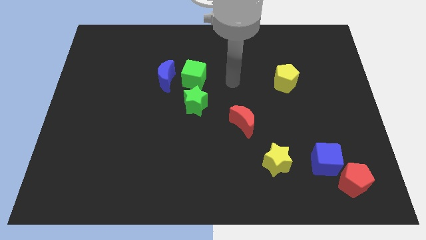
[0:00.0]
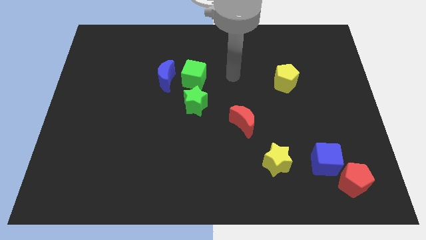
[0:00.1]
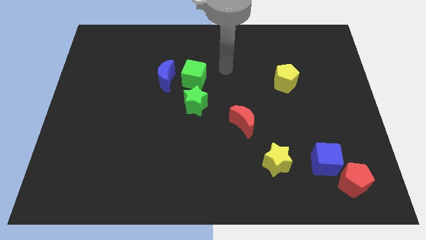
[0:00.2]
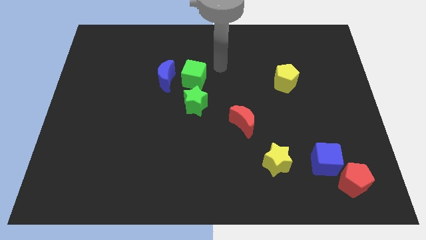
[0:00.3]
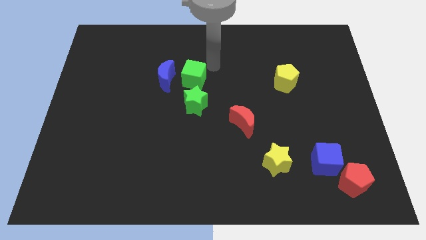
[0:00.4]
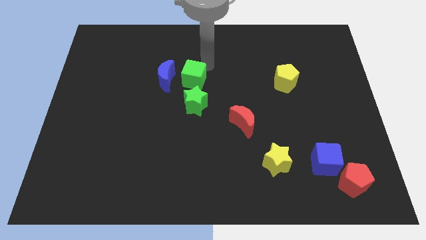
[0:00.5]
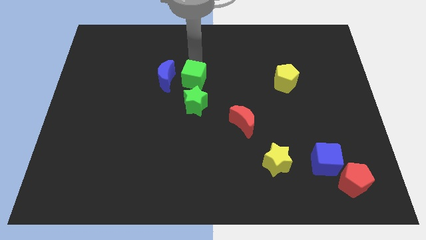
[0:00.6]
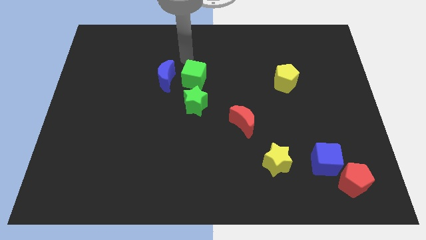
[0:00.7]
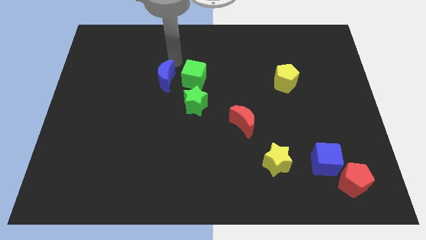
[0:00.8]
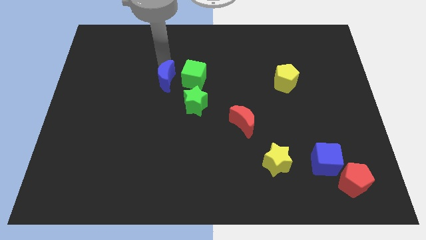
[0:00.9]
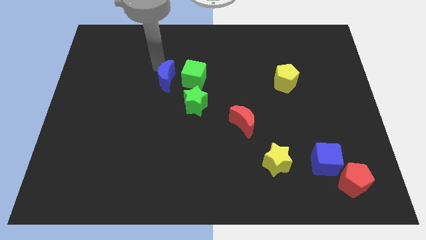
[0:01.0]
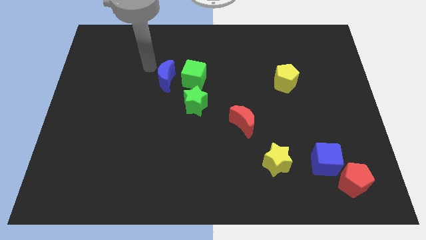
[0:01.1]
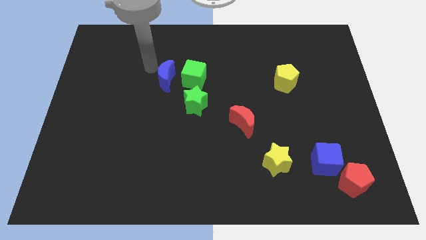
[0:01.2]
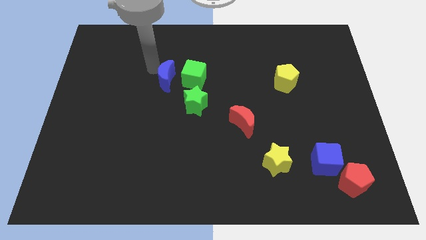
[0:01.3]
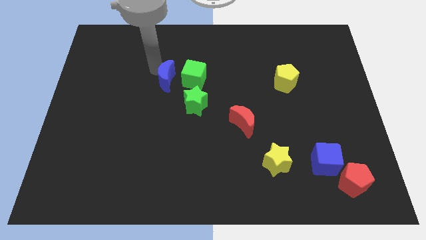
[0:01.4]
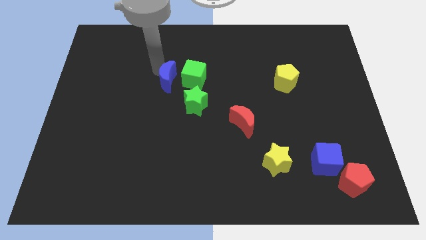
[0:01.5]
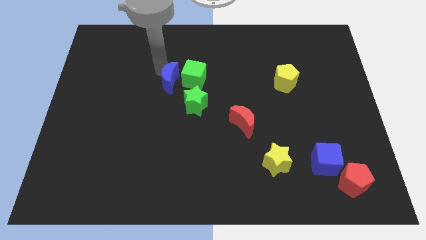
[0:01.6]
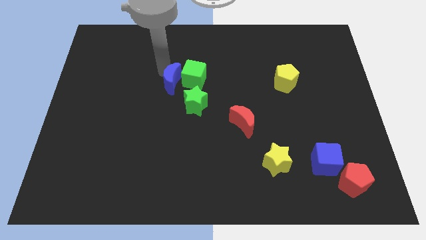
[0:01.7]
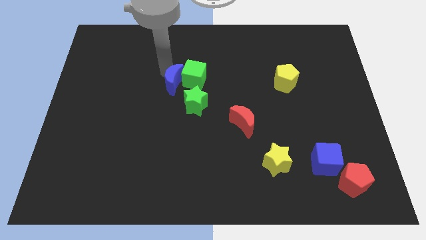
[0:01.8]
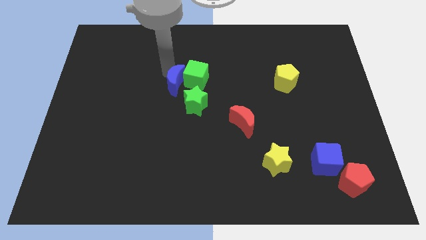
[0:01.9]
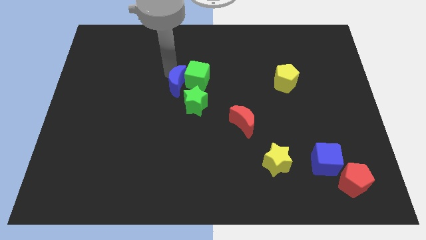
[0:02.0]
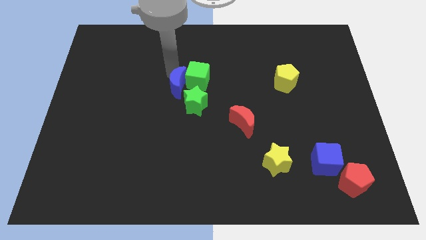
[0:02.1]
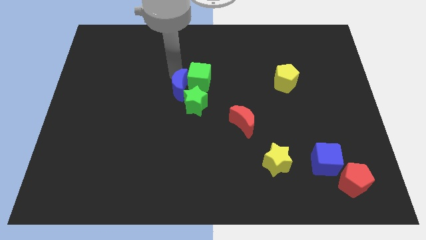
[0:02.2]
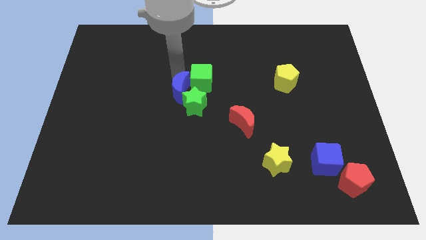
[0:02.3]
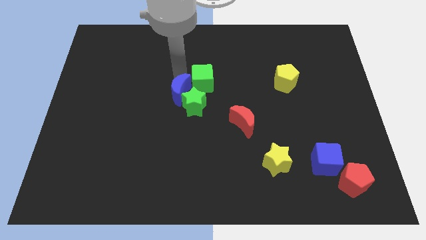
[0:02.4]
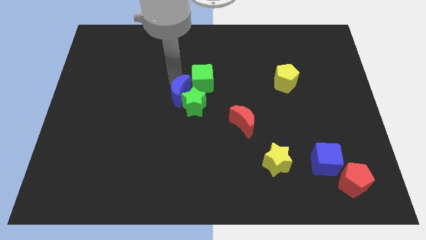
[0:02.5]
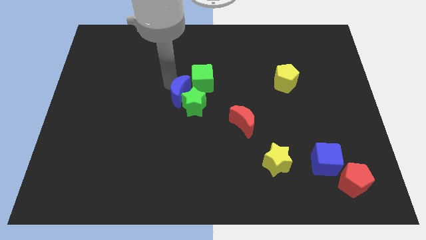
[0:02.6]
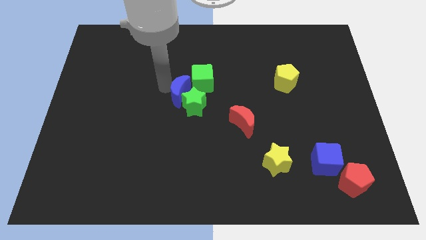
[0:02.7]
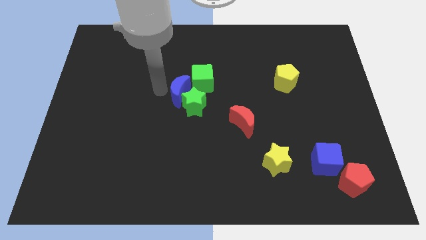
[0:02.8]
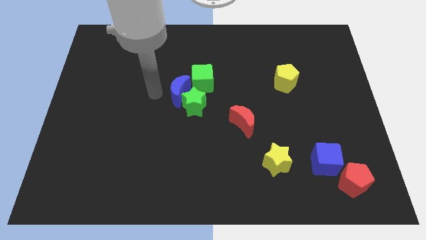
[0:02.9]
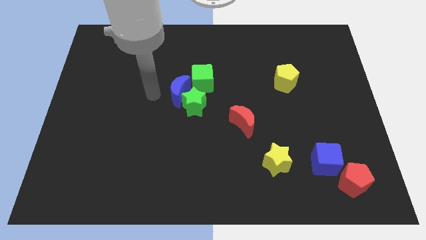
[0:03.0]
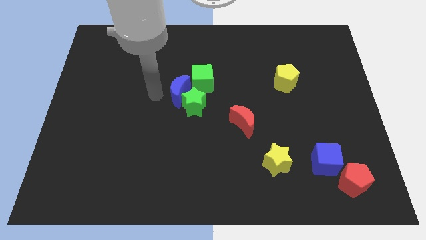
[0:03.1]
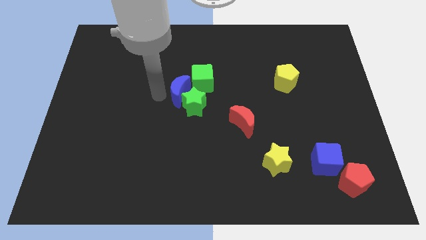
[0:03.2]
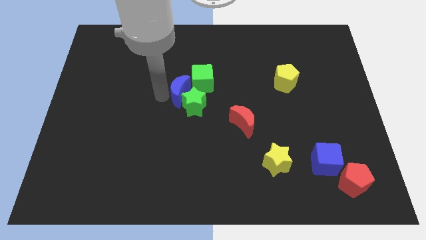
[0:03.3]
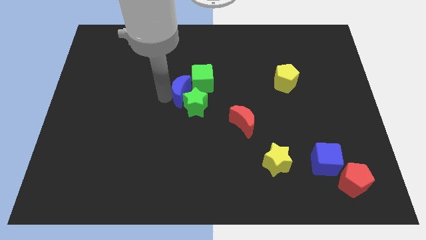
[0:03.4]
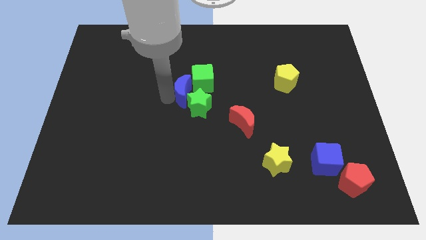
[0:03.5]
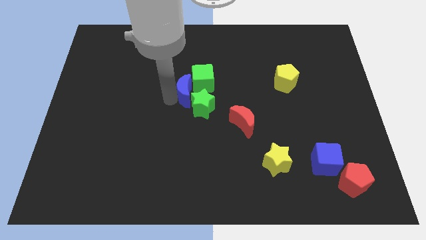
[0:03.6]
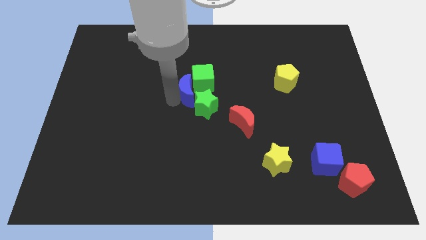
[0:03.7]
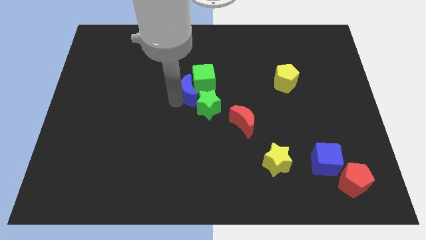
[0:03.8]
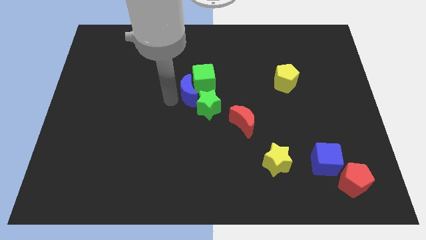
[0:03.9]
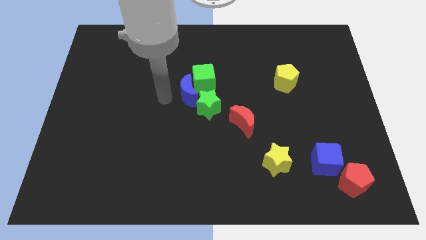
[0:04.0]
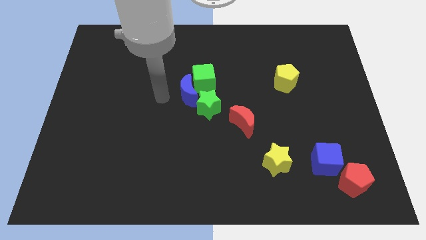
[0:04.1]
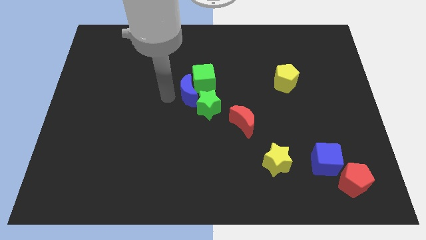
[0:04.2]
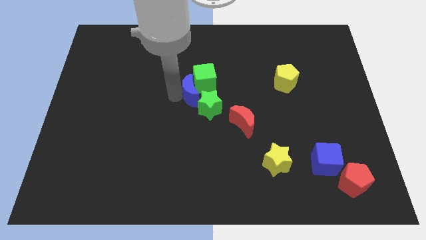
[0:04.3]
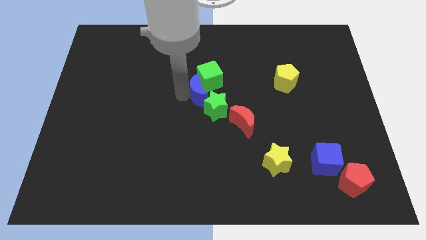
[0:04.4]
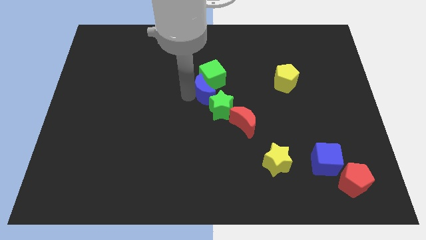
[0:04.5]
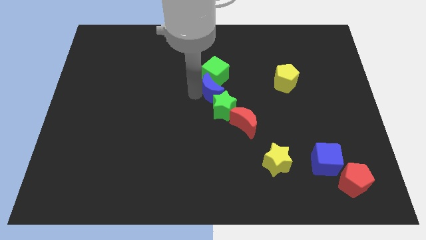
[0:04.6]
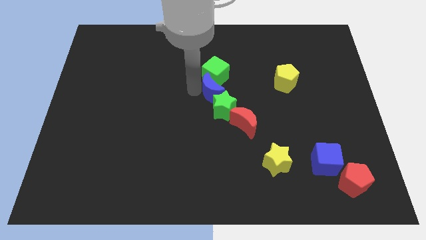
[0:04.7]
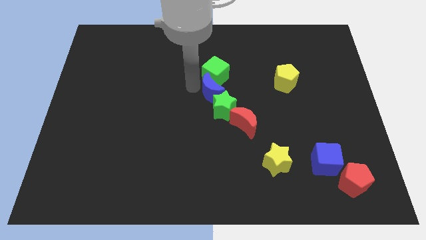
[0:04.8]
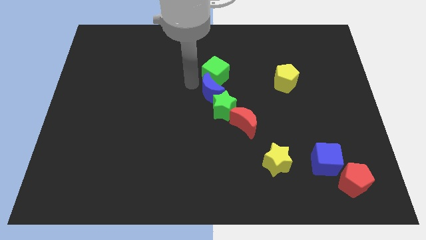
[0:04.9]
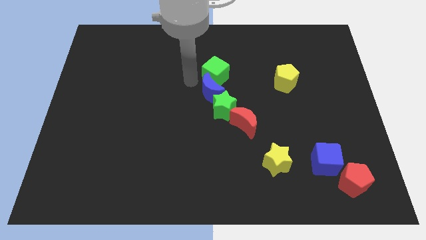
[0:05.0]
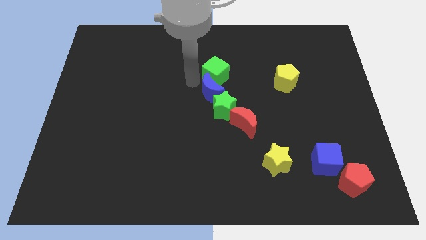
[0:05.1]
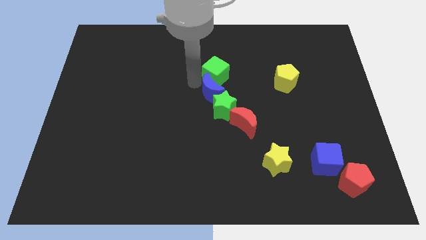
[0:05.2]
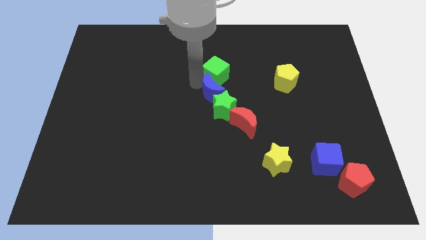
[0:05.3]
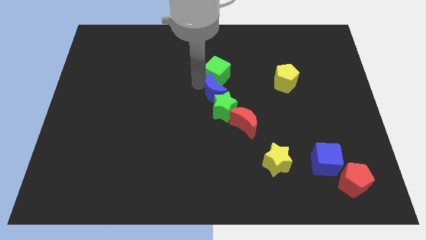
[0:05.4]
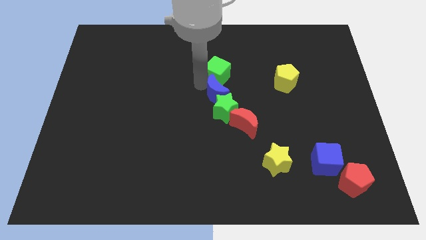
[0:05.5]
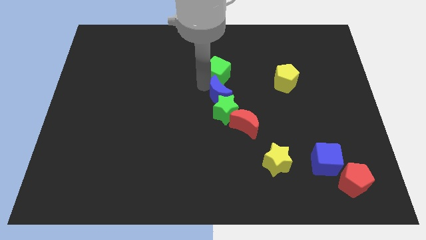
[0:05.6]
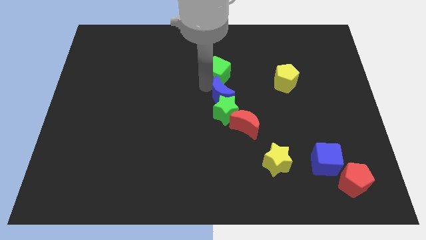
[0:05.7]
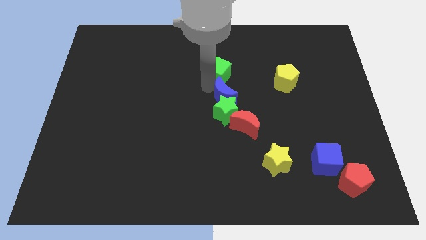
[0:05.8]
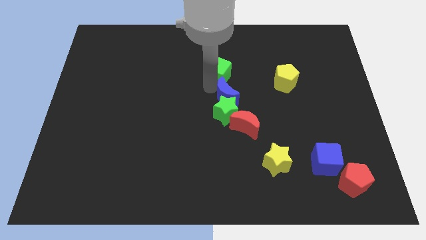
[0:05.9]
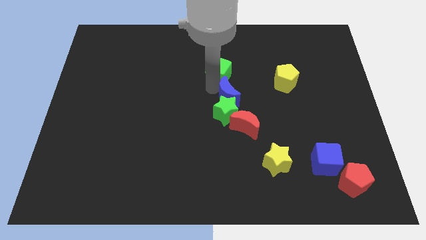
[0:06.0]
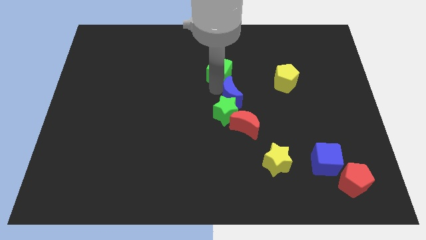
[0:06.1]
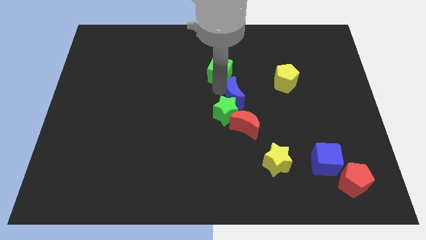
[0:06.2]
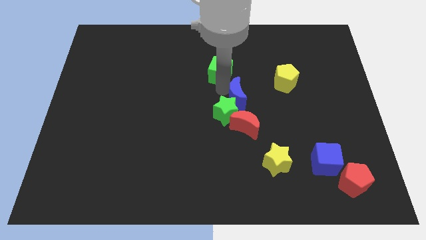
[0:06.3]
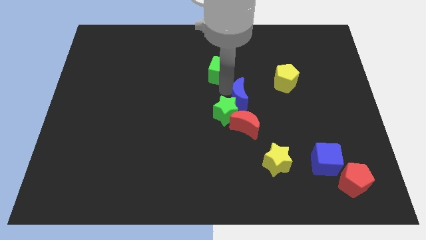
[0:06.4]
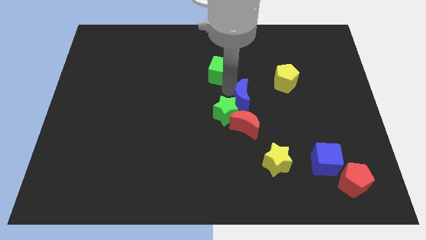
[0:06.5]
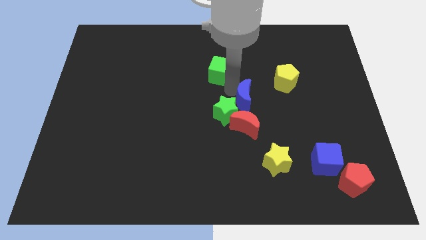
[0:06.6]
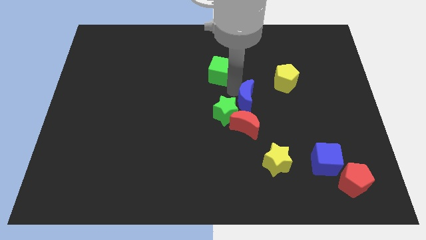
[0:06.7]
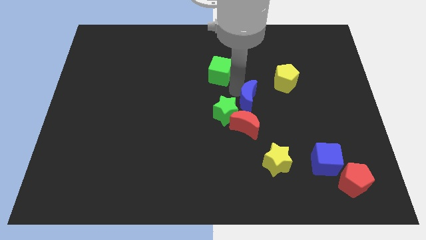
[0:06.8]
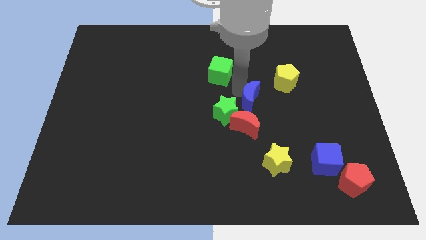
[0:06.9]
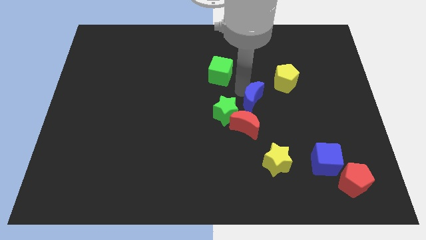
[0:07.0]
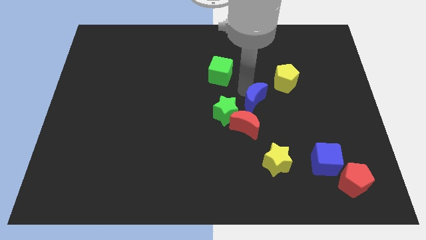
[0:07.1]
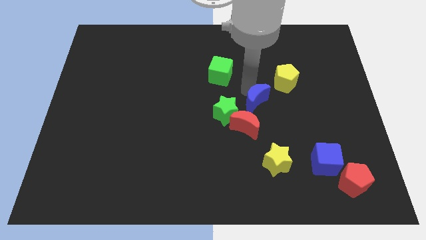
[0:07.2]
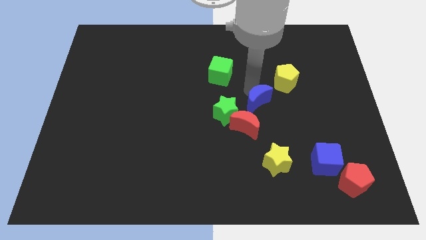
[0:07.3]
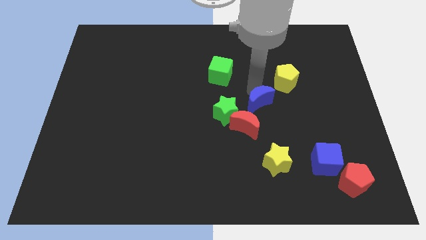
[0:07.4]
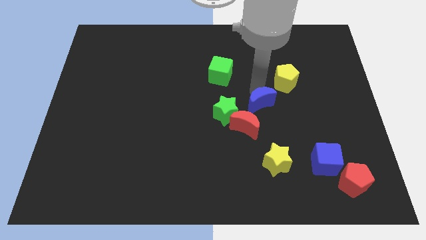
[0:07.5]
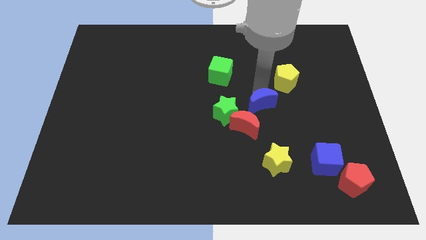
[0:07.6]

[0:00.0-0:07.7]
slide the blue moon to the top of the yellow star
